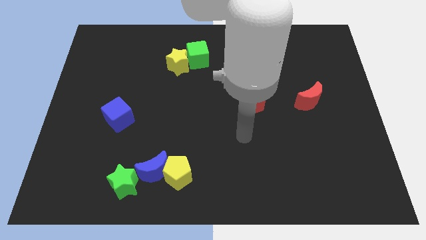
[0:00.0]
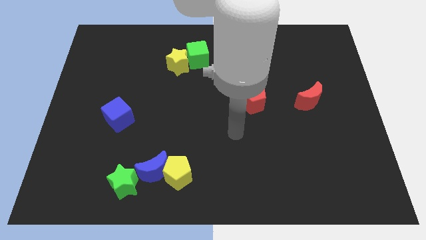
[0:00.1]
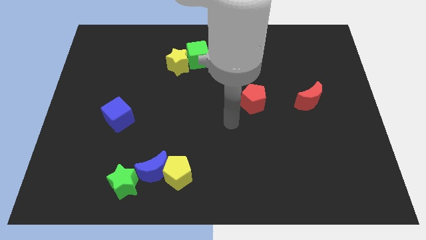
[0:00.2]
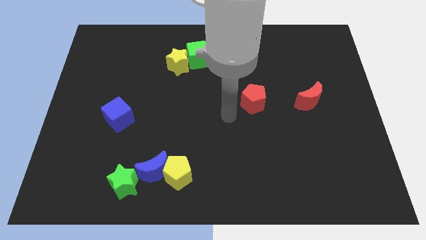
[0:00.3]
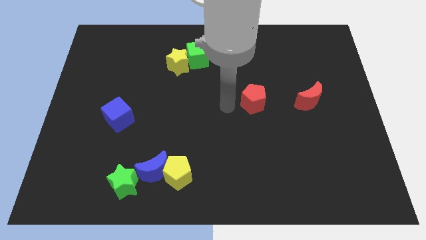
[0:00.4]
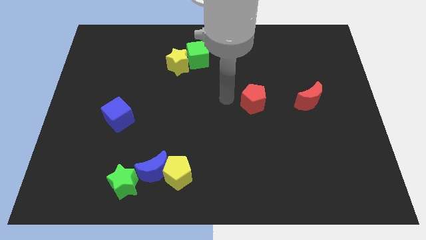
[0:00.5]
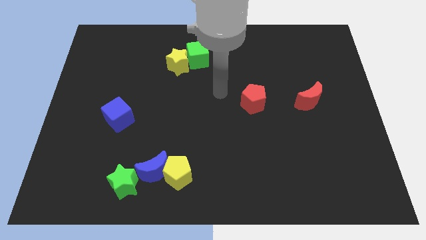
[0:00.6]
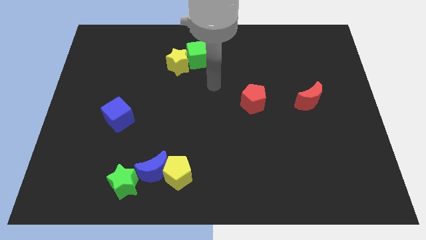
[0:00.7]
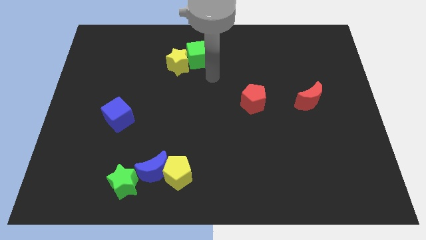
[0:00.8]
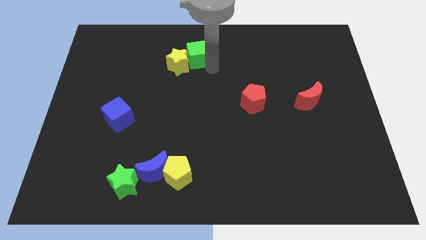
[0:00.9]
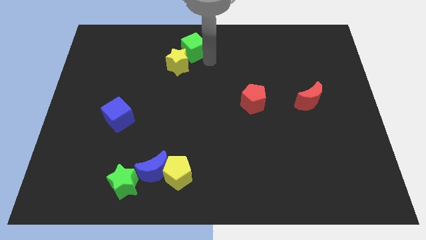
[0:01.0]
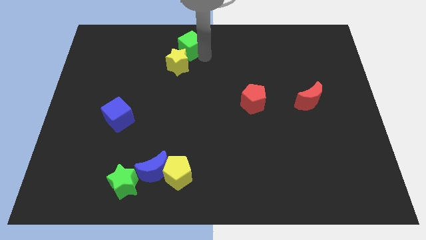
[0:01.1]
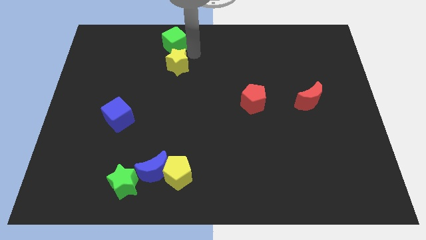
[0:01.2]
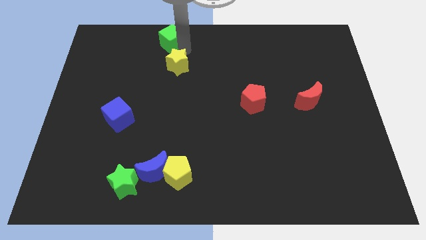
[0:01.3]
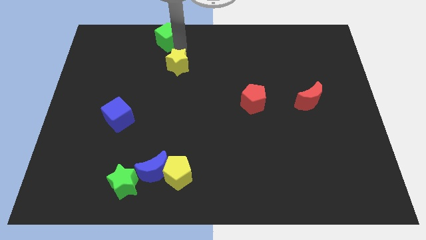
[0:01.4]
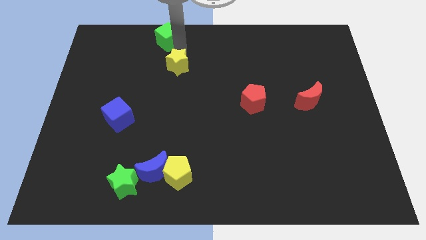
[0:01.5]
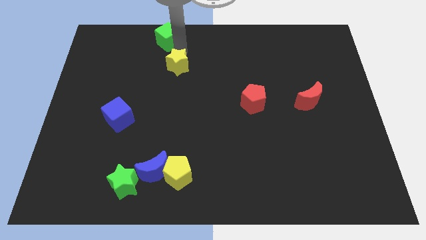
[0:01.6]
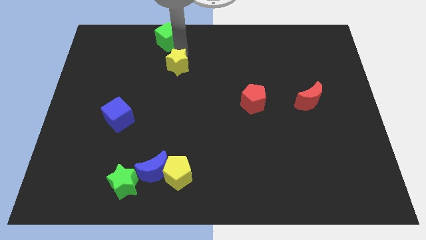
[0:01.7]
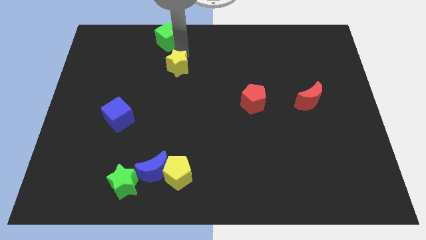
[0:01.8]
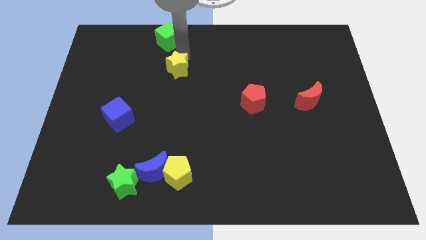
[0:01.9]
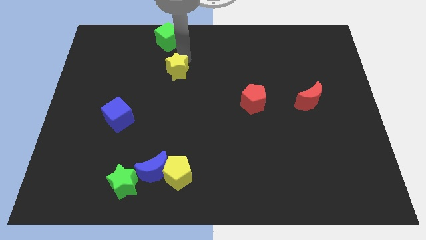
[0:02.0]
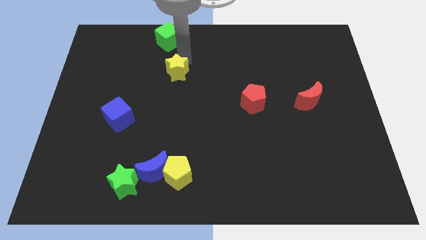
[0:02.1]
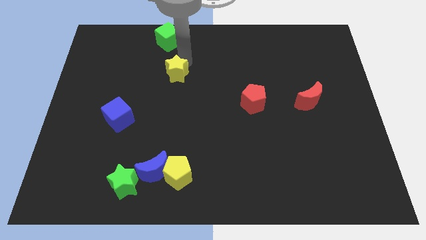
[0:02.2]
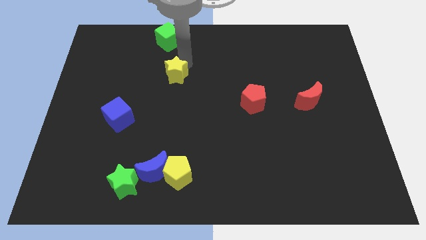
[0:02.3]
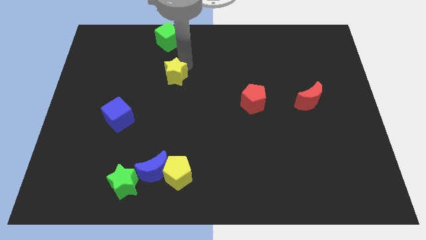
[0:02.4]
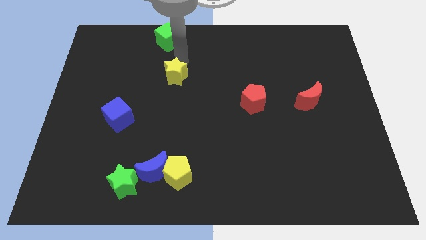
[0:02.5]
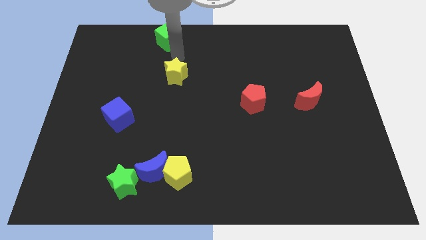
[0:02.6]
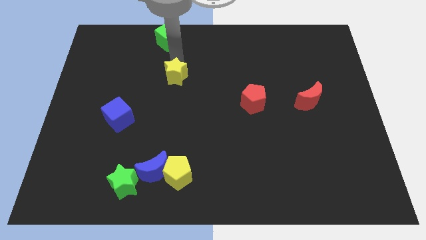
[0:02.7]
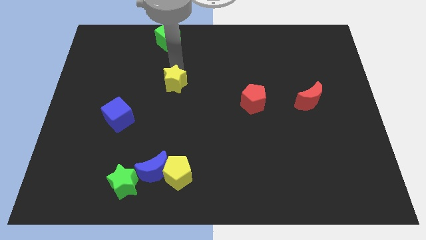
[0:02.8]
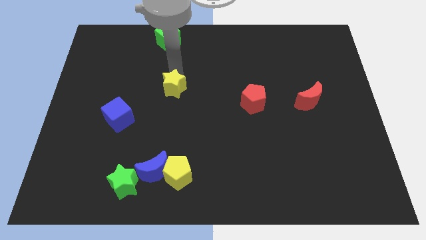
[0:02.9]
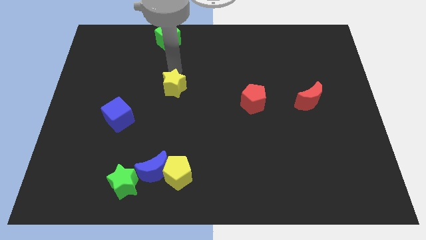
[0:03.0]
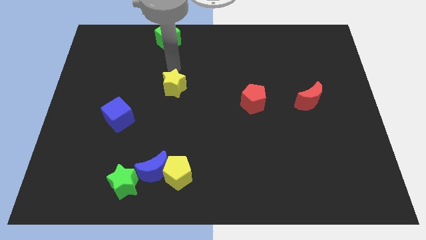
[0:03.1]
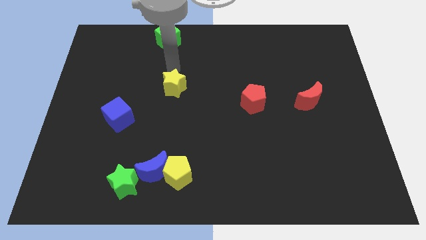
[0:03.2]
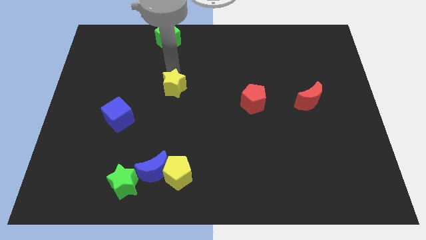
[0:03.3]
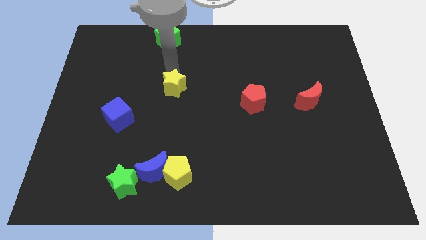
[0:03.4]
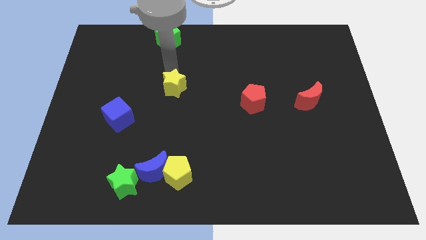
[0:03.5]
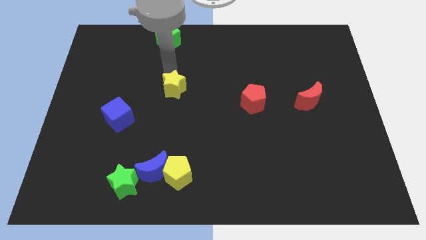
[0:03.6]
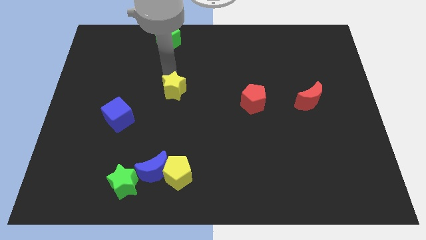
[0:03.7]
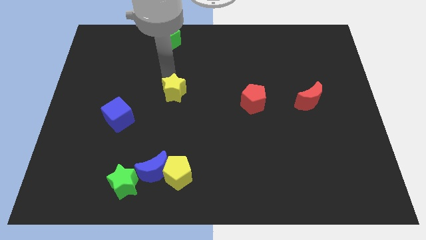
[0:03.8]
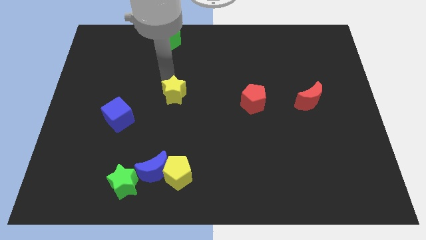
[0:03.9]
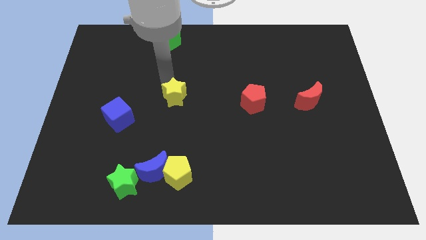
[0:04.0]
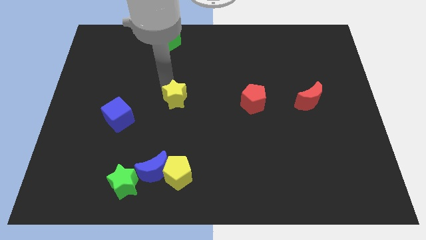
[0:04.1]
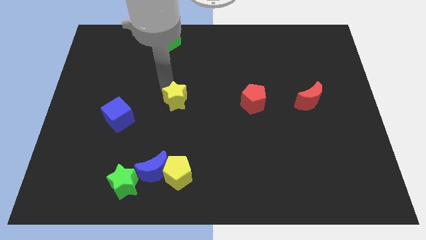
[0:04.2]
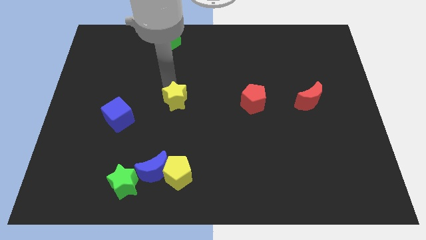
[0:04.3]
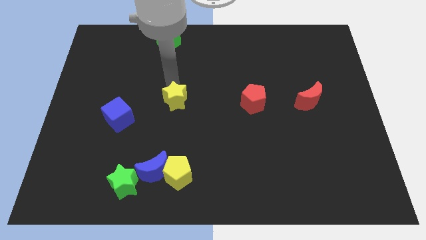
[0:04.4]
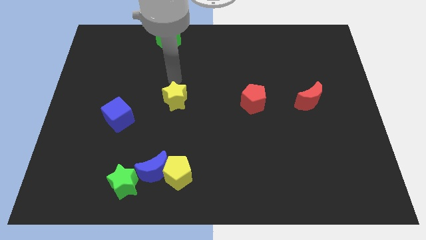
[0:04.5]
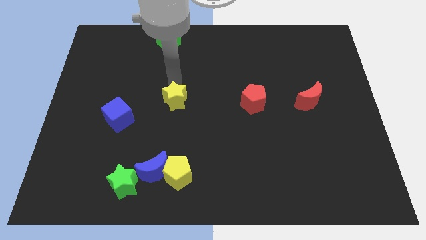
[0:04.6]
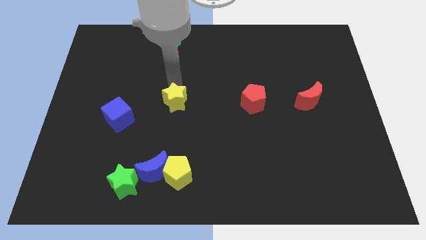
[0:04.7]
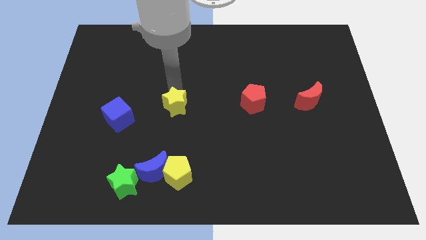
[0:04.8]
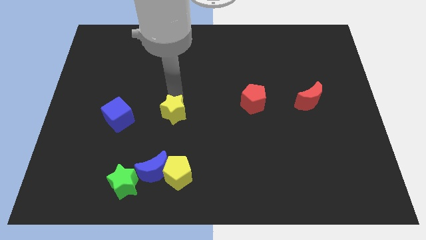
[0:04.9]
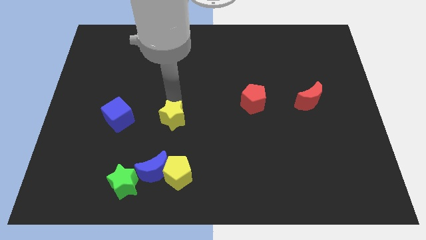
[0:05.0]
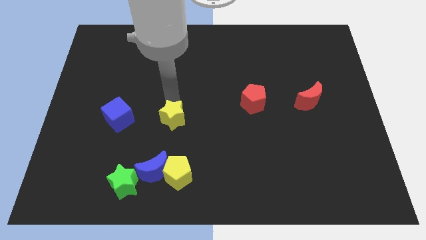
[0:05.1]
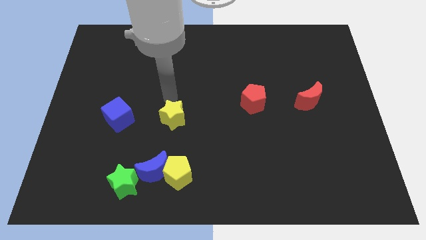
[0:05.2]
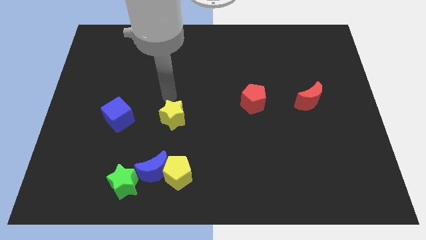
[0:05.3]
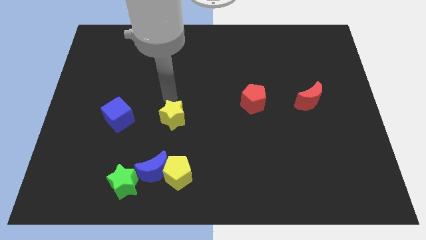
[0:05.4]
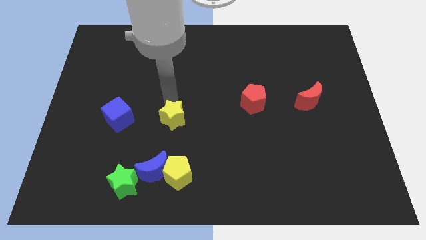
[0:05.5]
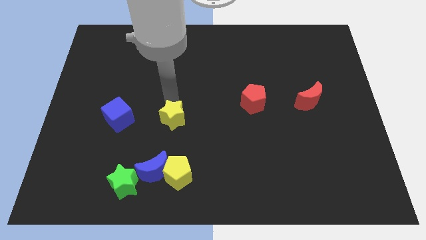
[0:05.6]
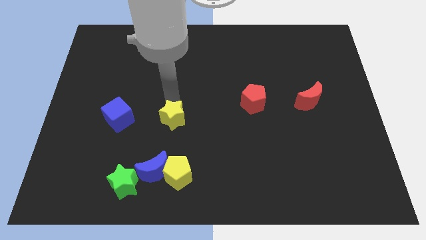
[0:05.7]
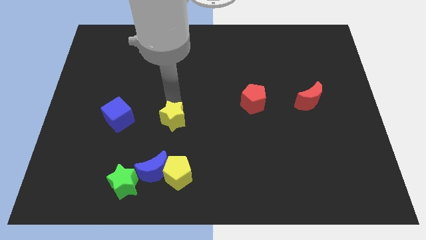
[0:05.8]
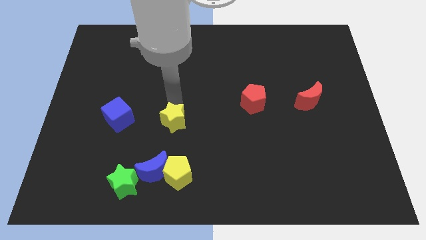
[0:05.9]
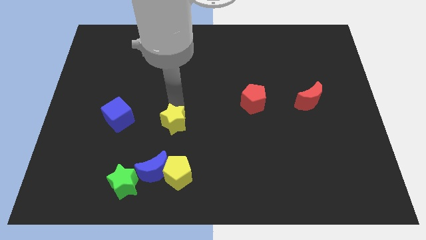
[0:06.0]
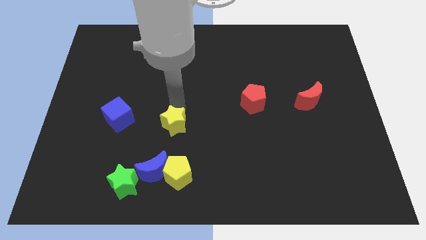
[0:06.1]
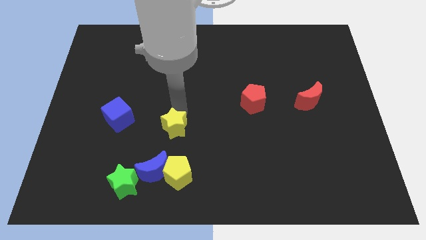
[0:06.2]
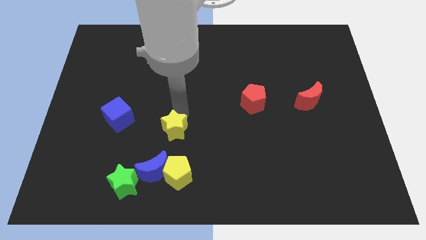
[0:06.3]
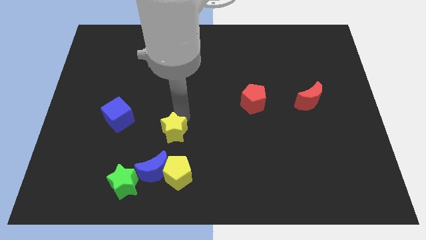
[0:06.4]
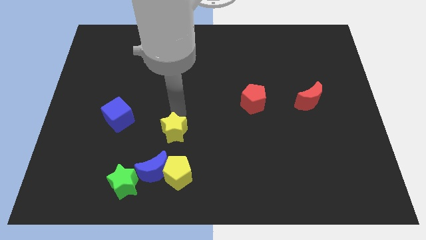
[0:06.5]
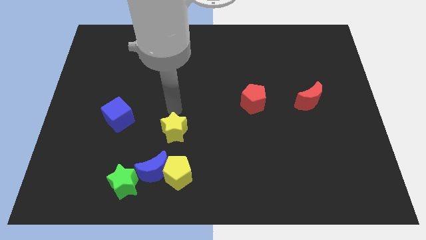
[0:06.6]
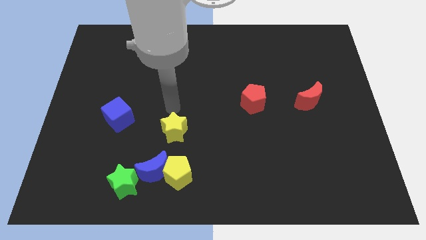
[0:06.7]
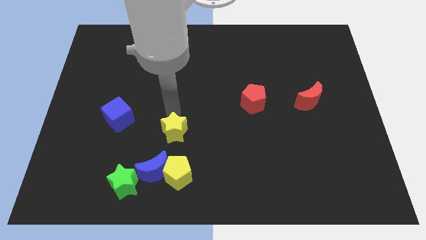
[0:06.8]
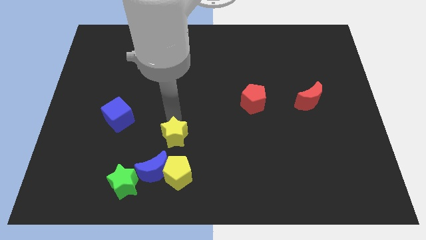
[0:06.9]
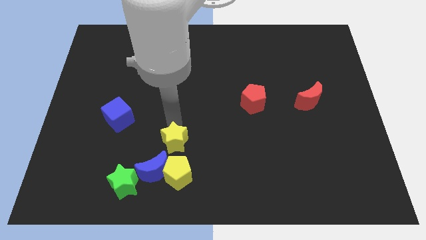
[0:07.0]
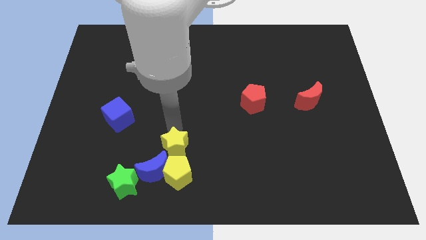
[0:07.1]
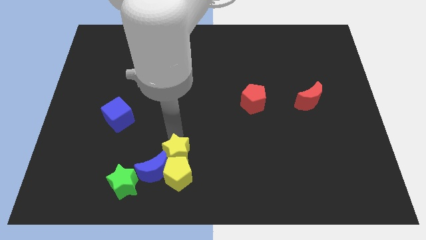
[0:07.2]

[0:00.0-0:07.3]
put the yellow star next to the yellow pentagon
